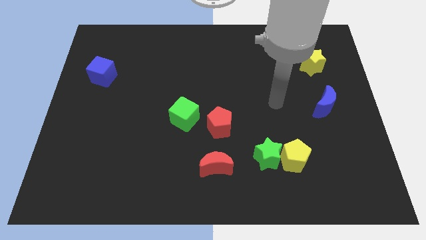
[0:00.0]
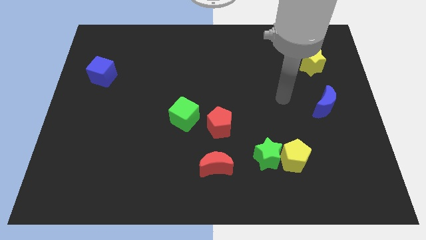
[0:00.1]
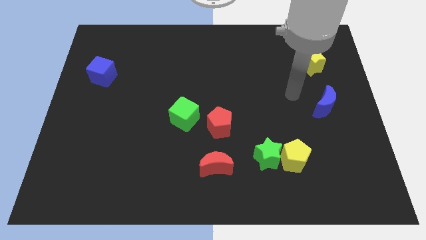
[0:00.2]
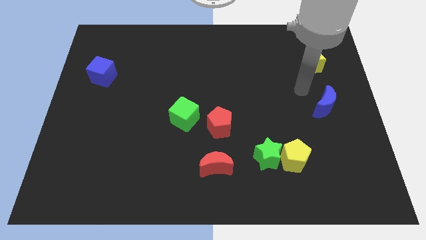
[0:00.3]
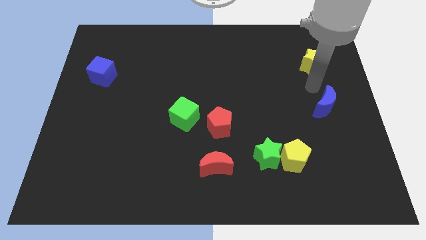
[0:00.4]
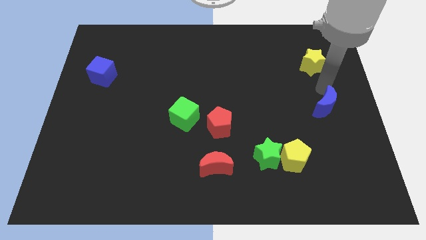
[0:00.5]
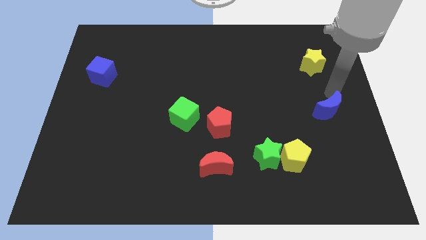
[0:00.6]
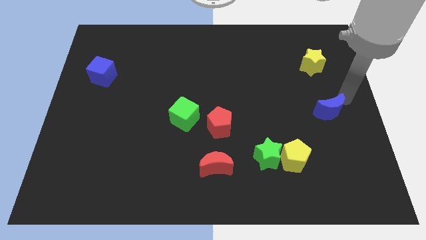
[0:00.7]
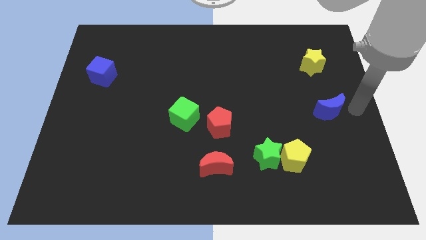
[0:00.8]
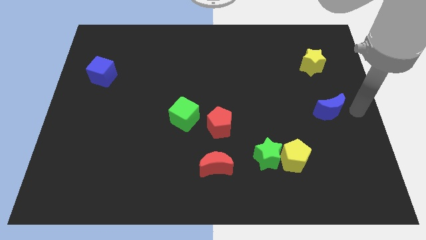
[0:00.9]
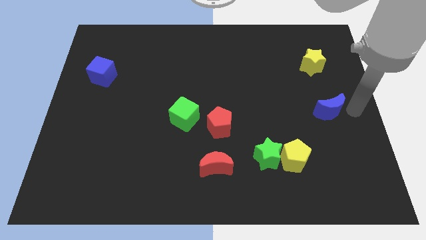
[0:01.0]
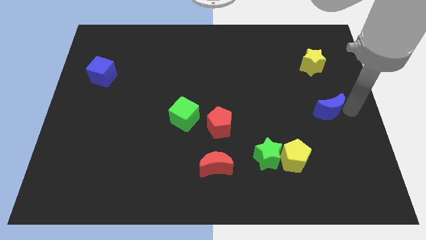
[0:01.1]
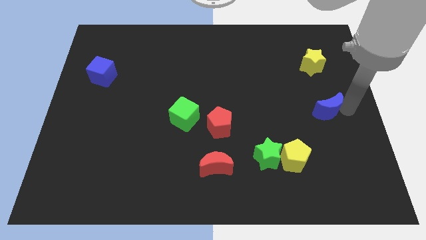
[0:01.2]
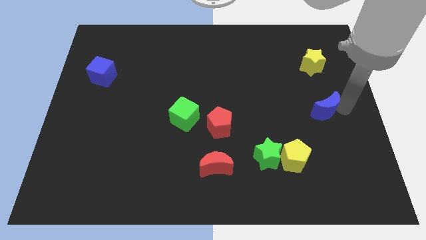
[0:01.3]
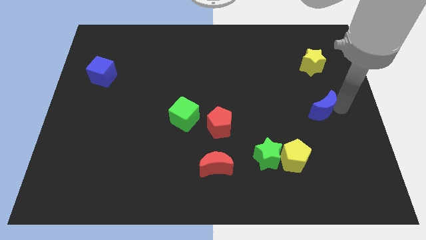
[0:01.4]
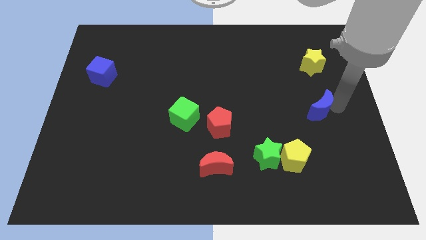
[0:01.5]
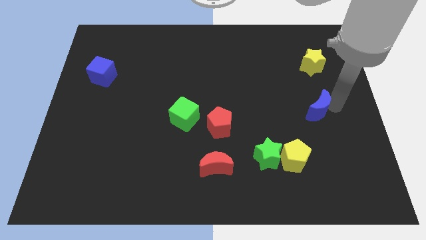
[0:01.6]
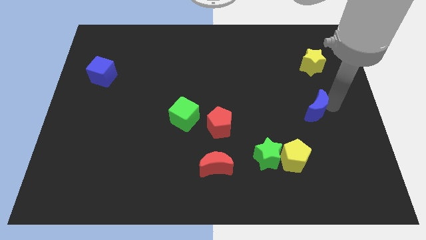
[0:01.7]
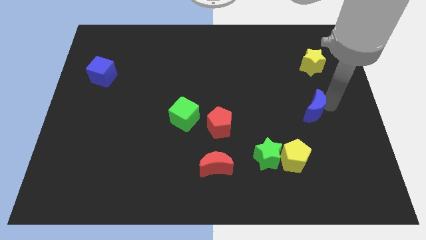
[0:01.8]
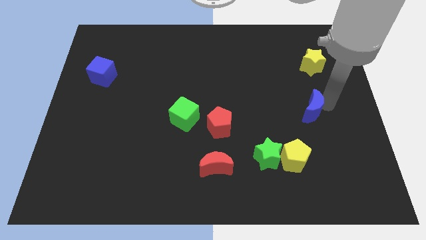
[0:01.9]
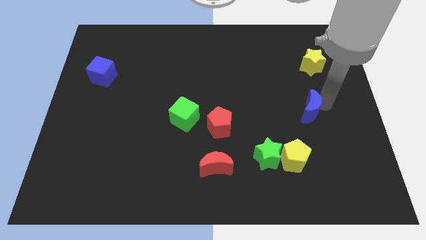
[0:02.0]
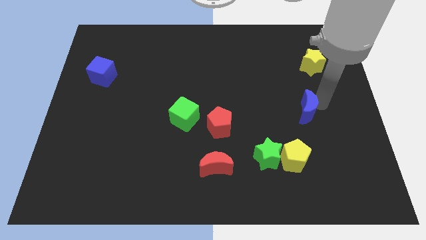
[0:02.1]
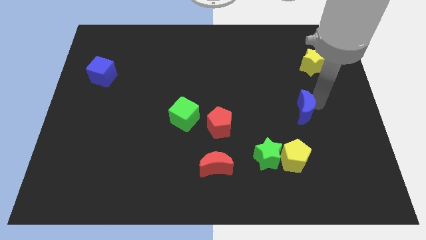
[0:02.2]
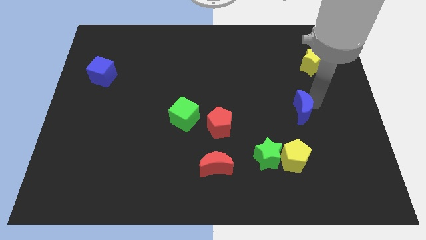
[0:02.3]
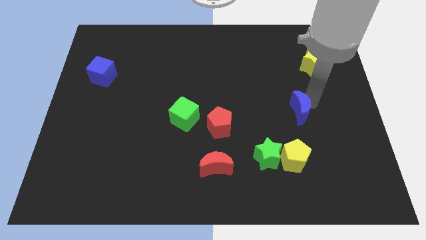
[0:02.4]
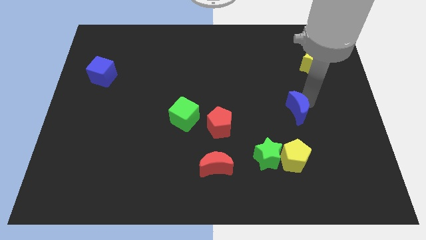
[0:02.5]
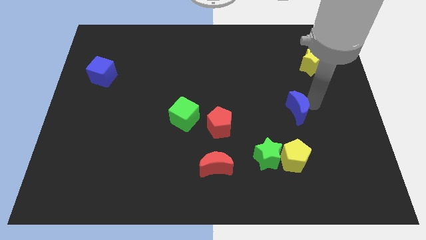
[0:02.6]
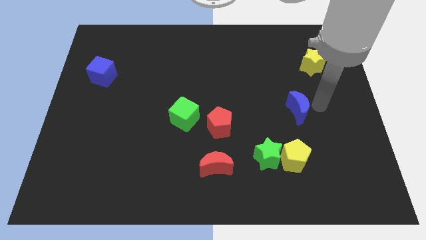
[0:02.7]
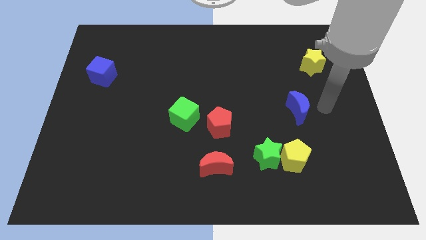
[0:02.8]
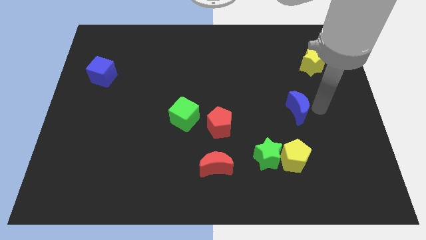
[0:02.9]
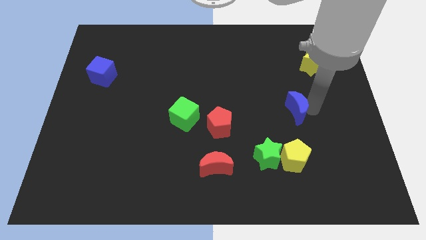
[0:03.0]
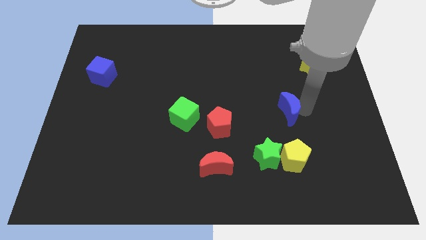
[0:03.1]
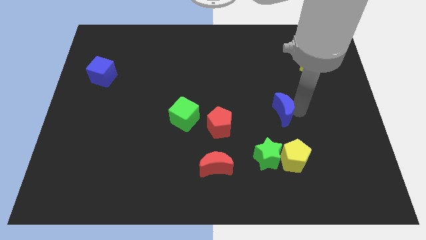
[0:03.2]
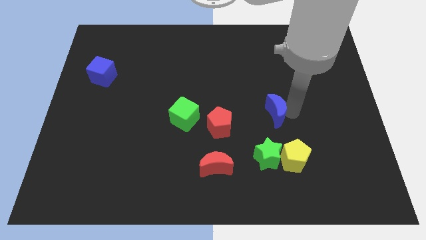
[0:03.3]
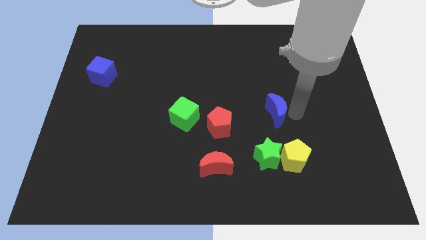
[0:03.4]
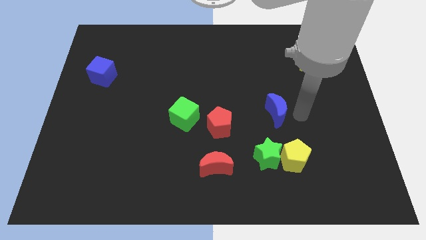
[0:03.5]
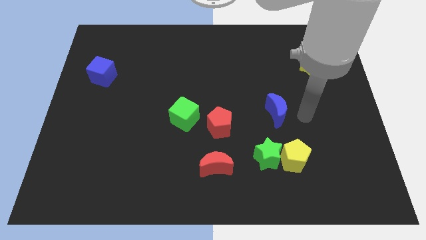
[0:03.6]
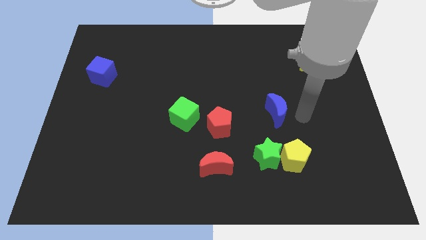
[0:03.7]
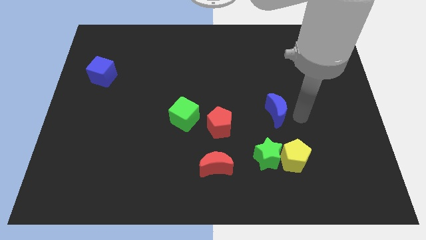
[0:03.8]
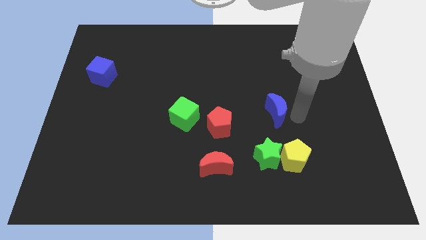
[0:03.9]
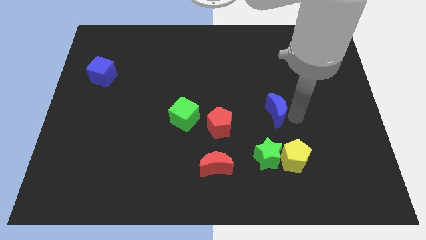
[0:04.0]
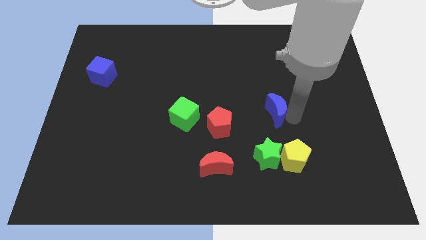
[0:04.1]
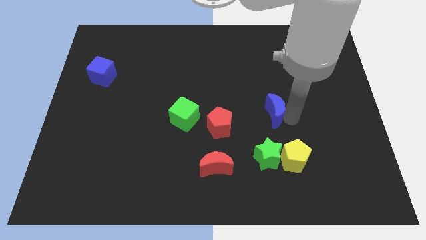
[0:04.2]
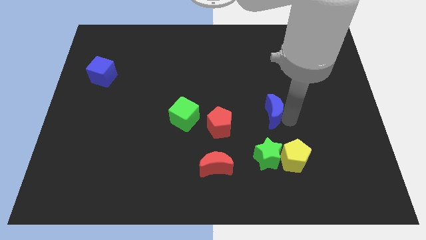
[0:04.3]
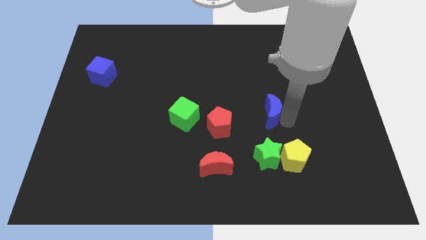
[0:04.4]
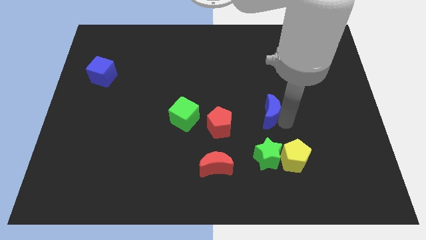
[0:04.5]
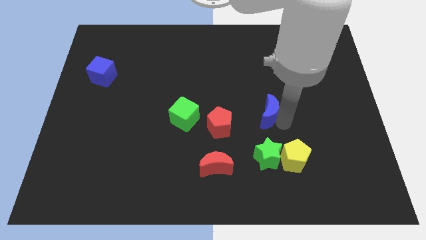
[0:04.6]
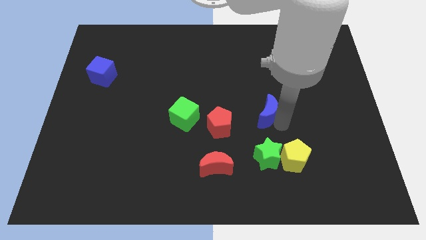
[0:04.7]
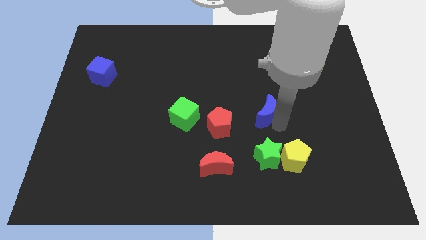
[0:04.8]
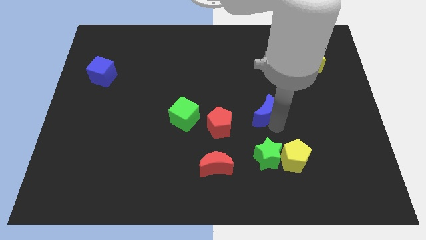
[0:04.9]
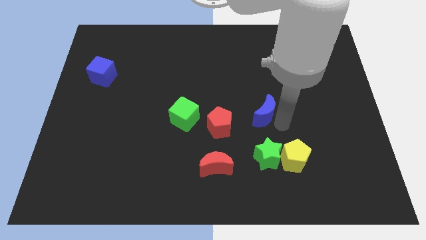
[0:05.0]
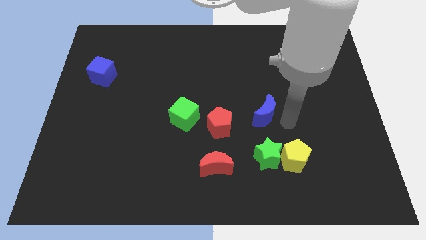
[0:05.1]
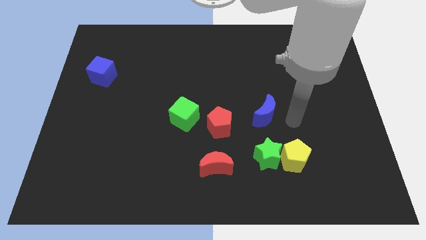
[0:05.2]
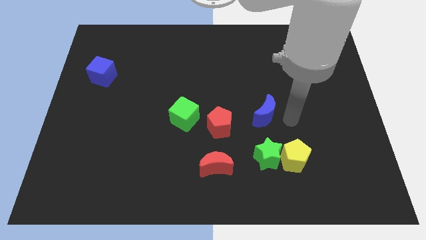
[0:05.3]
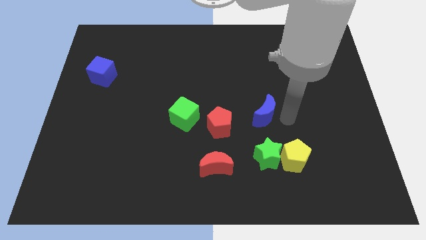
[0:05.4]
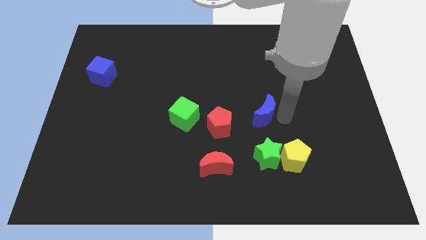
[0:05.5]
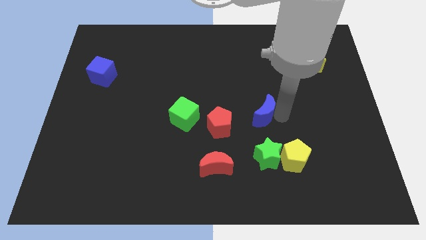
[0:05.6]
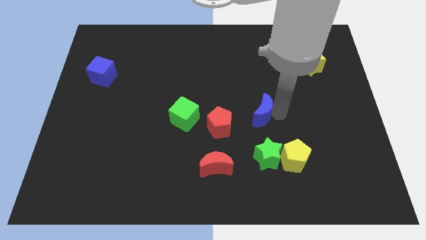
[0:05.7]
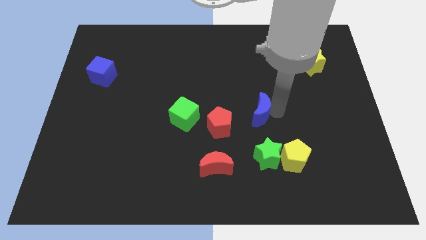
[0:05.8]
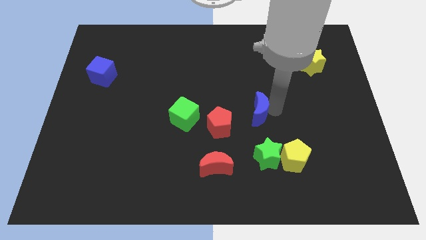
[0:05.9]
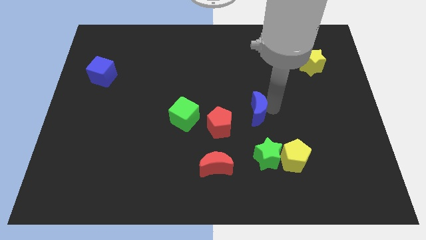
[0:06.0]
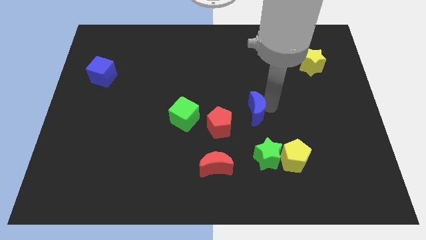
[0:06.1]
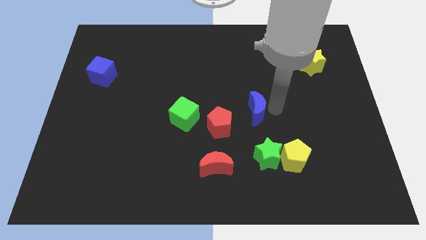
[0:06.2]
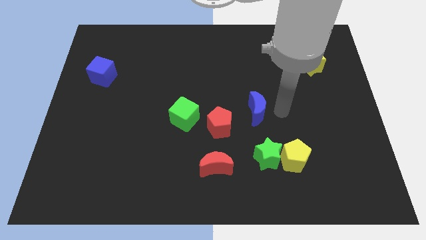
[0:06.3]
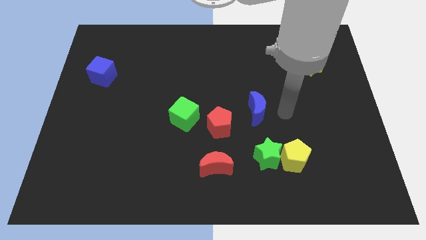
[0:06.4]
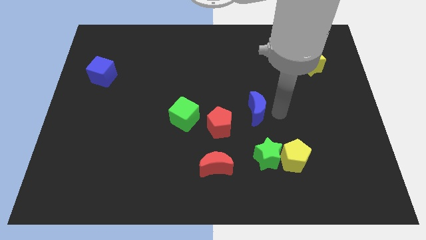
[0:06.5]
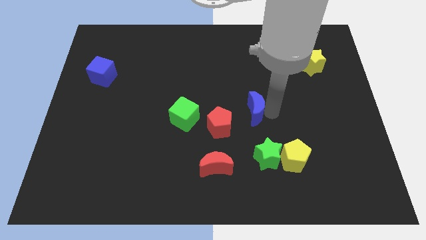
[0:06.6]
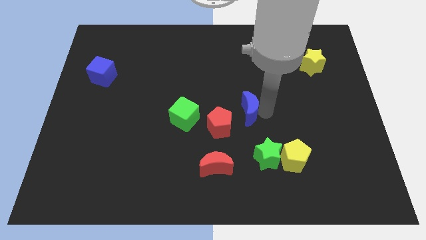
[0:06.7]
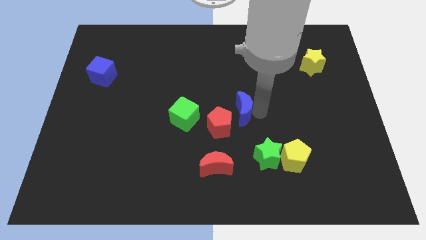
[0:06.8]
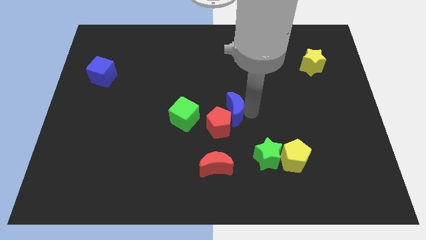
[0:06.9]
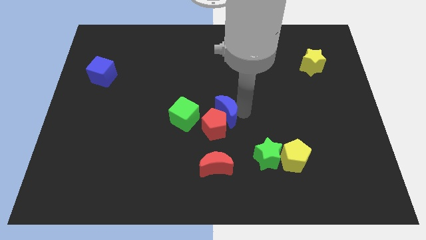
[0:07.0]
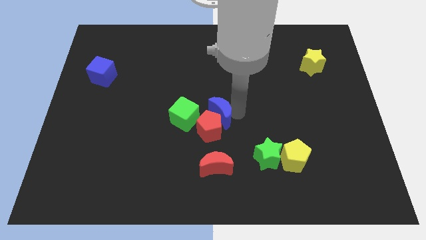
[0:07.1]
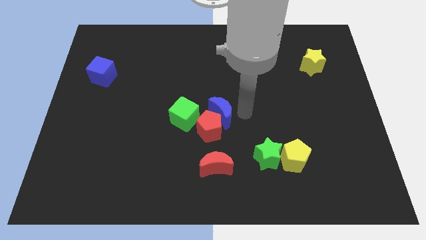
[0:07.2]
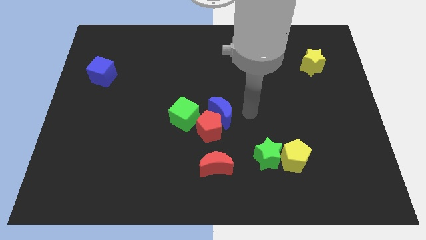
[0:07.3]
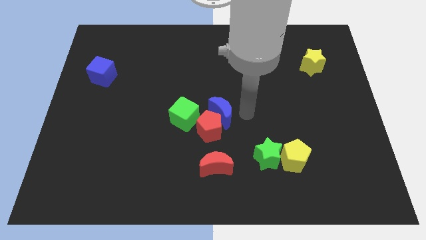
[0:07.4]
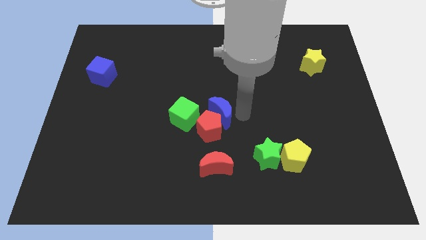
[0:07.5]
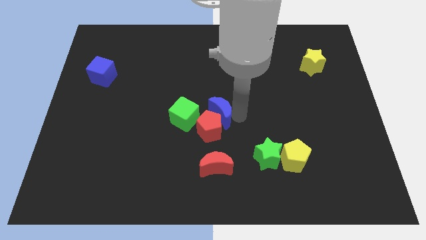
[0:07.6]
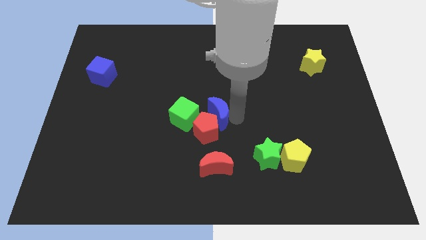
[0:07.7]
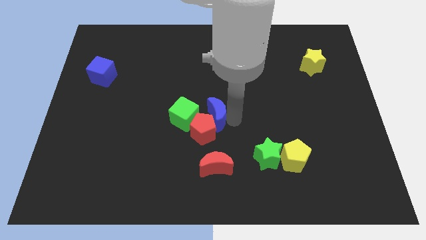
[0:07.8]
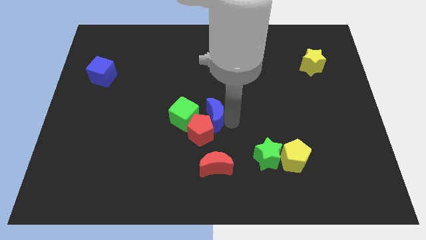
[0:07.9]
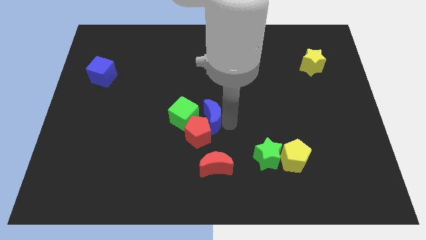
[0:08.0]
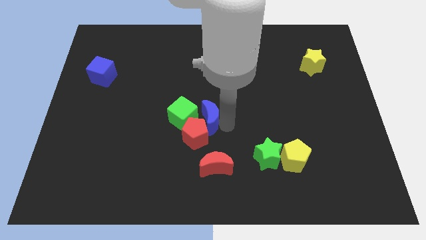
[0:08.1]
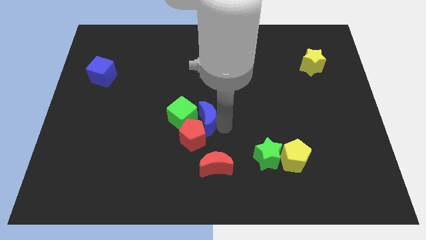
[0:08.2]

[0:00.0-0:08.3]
move the blue moon next to the green cube
